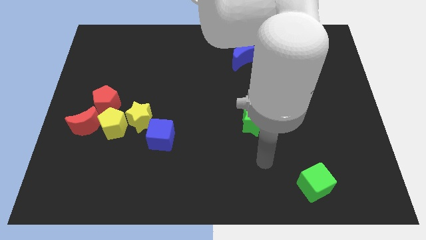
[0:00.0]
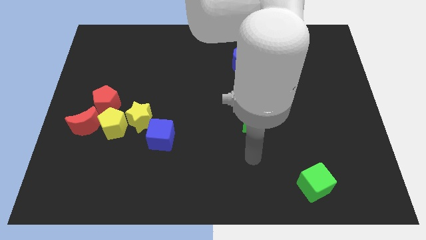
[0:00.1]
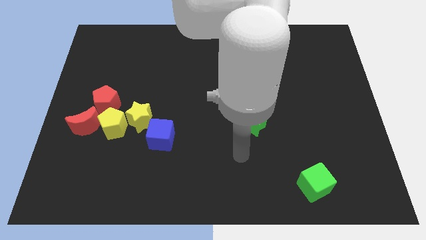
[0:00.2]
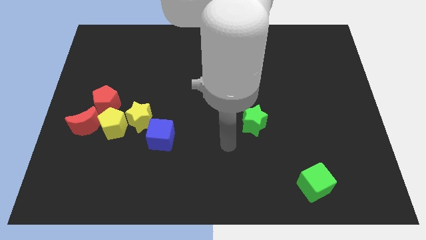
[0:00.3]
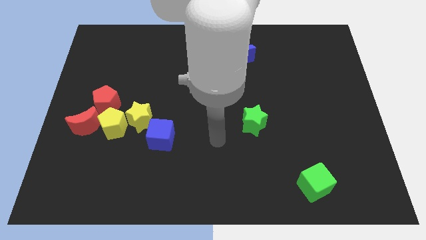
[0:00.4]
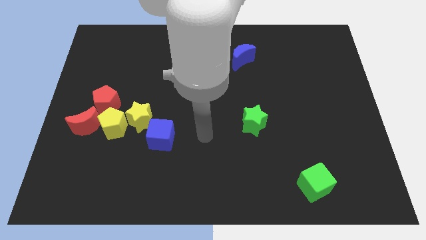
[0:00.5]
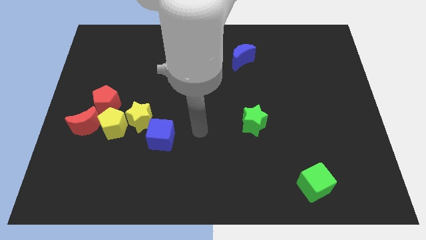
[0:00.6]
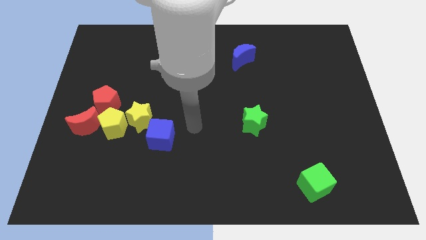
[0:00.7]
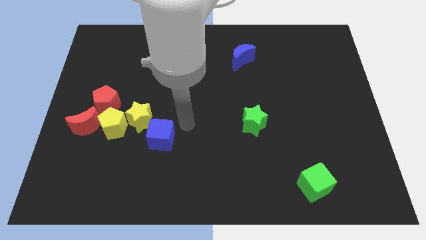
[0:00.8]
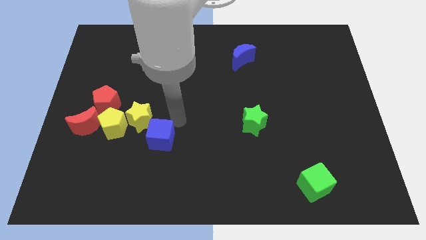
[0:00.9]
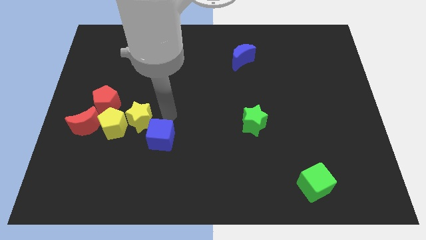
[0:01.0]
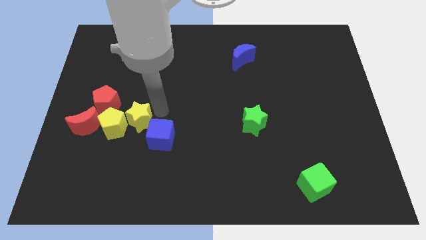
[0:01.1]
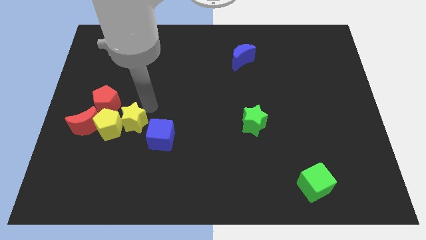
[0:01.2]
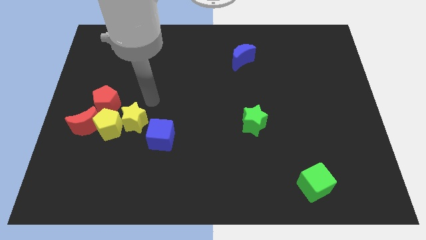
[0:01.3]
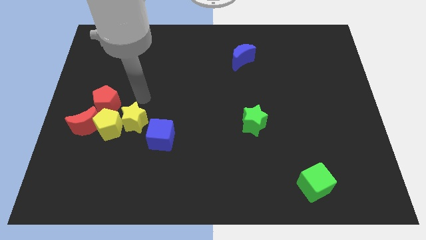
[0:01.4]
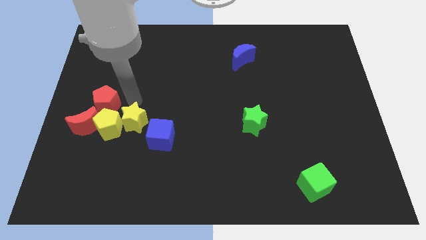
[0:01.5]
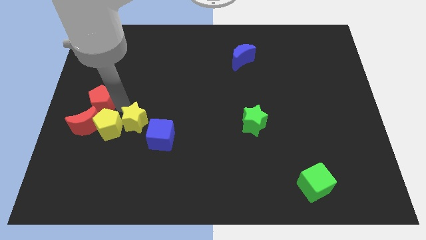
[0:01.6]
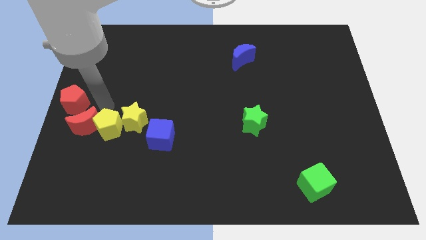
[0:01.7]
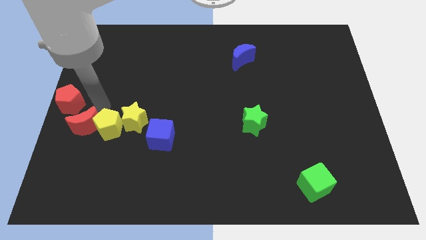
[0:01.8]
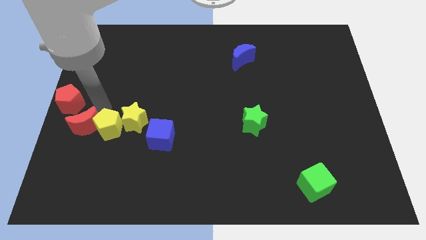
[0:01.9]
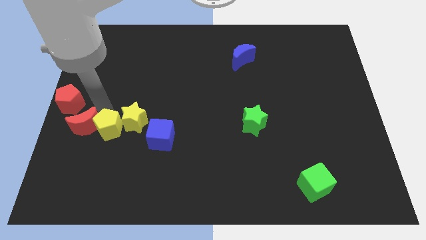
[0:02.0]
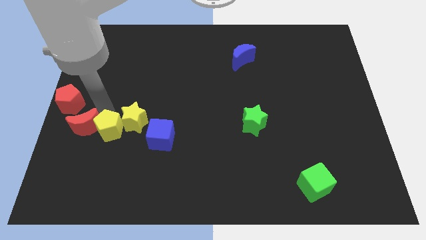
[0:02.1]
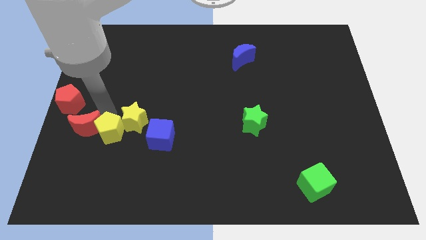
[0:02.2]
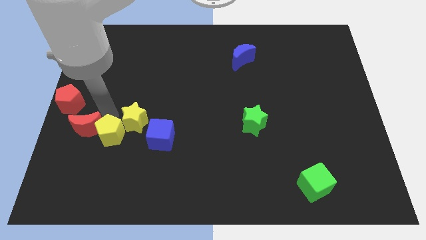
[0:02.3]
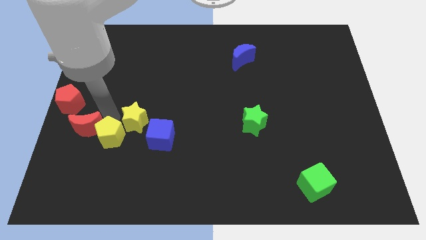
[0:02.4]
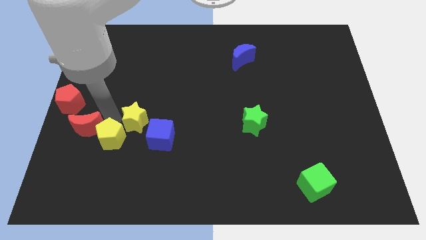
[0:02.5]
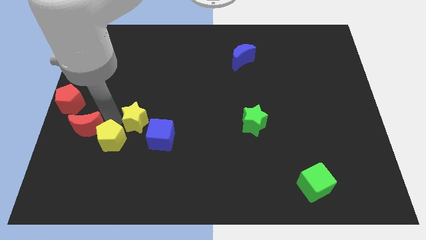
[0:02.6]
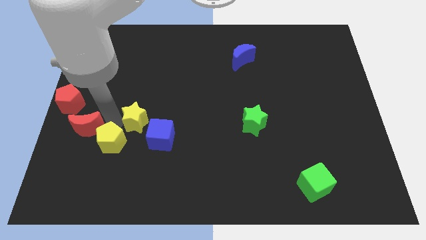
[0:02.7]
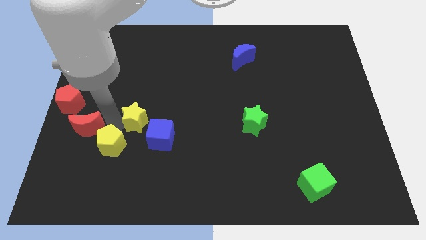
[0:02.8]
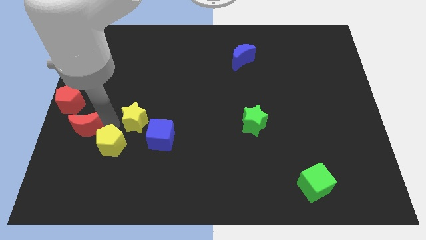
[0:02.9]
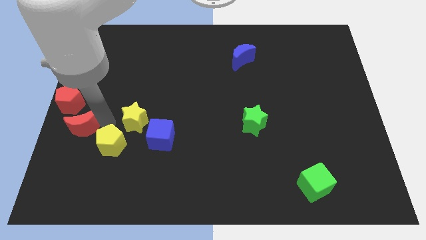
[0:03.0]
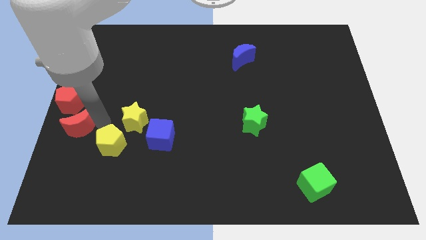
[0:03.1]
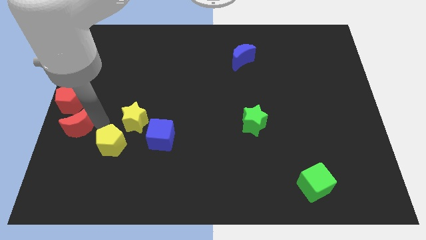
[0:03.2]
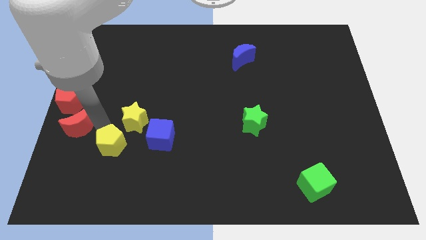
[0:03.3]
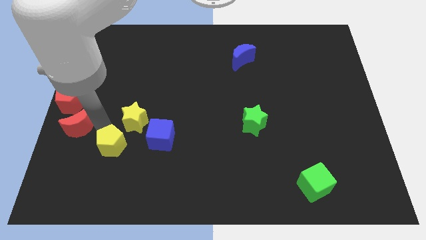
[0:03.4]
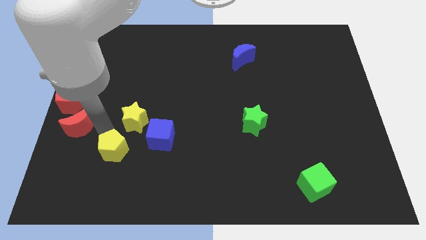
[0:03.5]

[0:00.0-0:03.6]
separate the yellow pentagon from the group

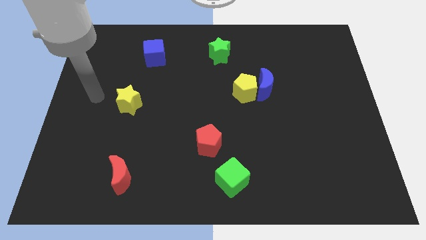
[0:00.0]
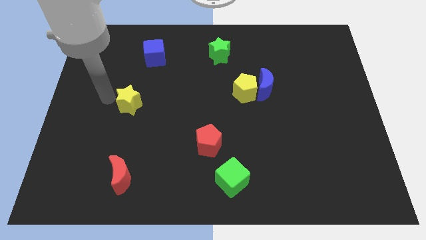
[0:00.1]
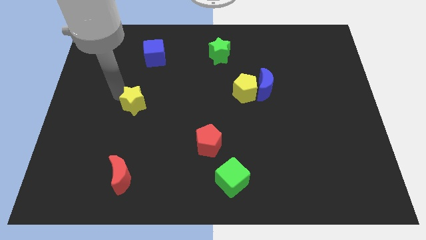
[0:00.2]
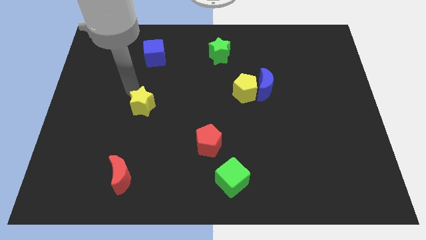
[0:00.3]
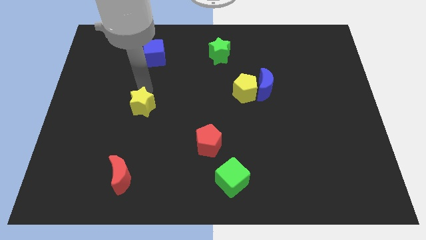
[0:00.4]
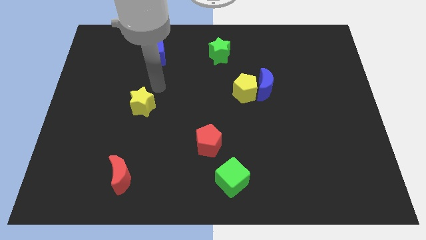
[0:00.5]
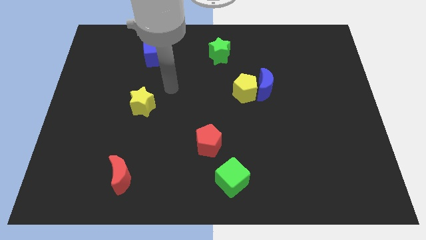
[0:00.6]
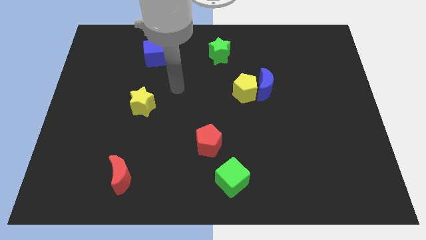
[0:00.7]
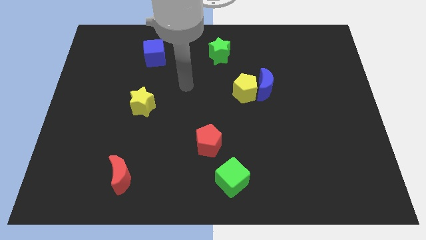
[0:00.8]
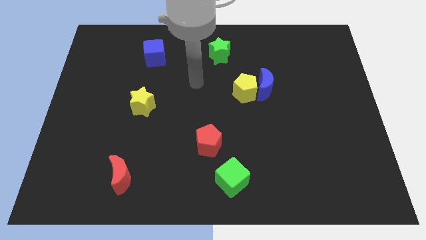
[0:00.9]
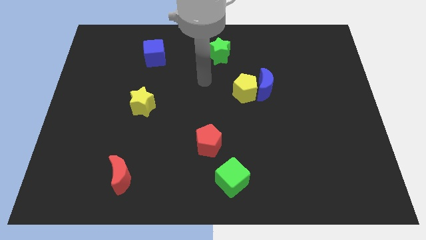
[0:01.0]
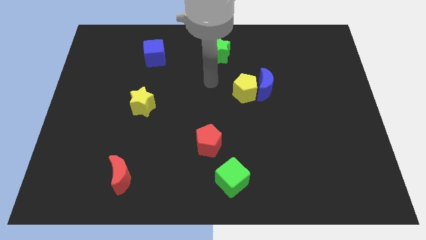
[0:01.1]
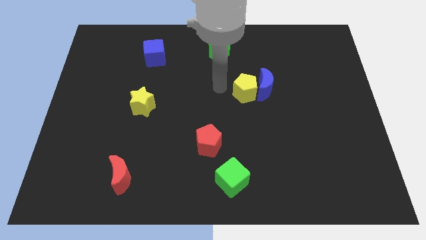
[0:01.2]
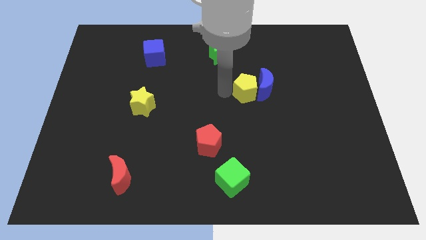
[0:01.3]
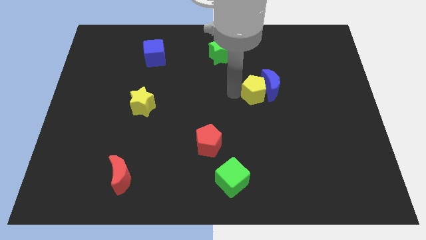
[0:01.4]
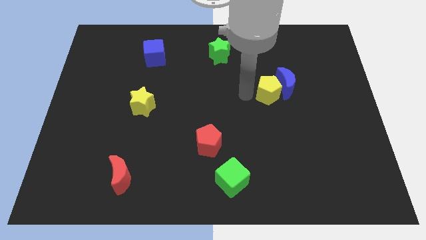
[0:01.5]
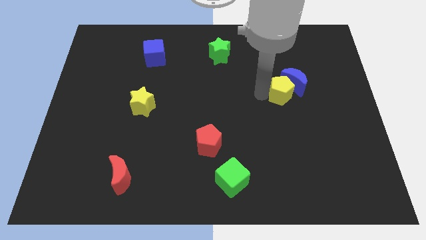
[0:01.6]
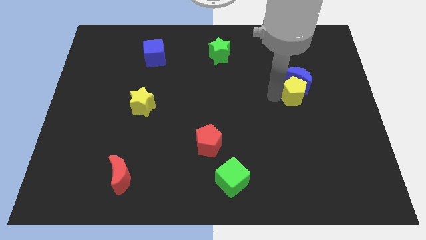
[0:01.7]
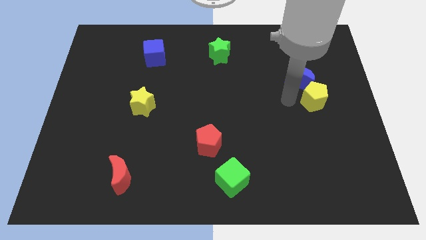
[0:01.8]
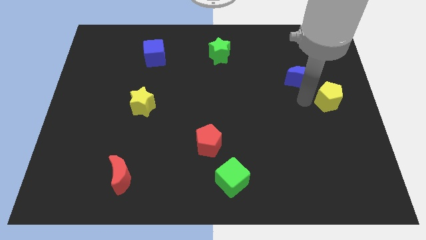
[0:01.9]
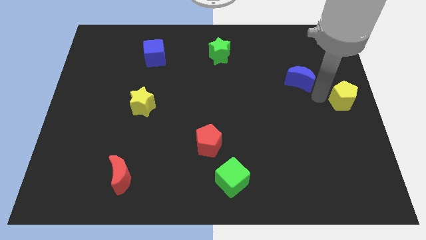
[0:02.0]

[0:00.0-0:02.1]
move the blue moon away from the yellow pentagon

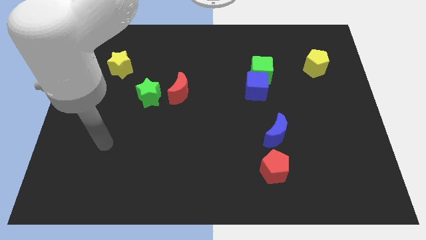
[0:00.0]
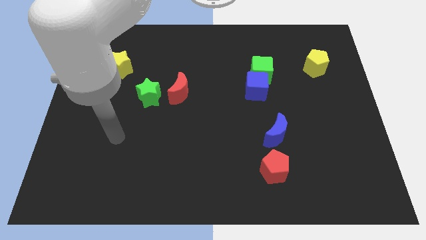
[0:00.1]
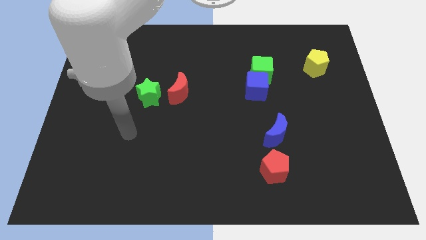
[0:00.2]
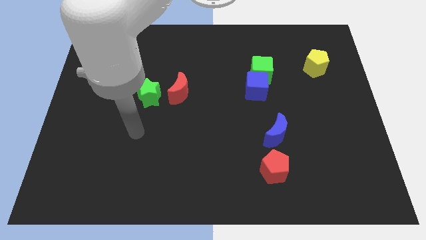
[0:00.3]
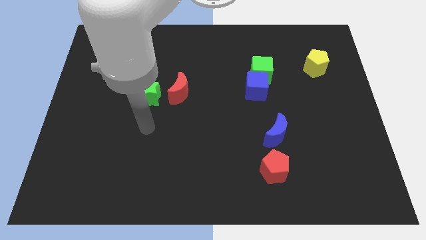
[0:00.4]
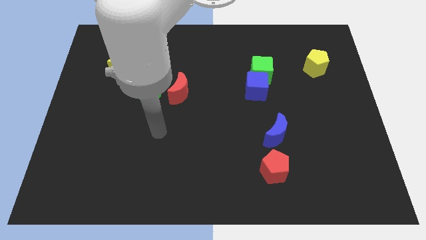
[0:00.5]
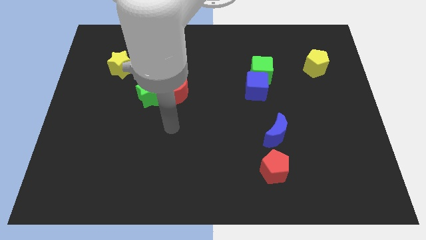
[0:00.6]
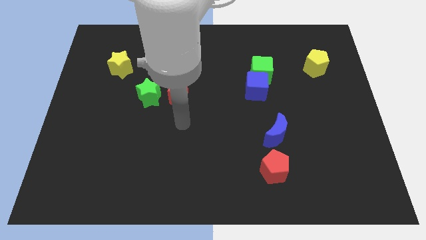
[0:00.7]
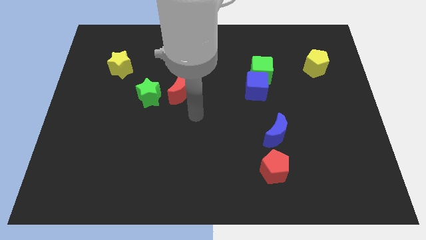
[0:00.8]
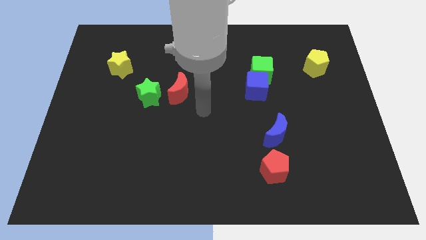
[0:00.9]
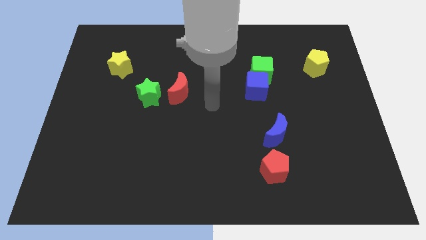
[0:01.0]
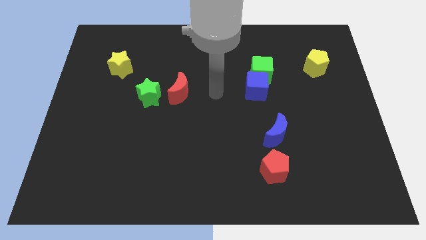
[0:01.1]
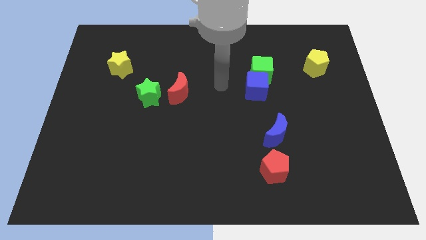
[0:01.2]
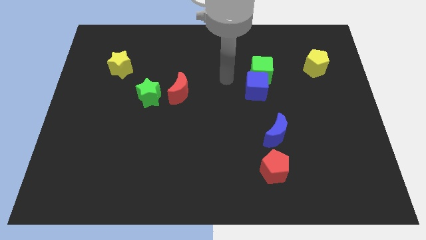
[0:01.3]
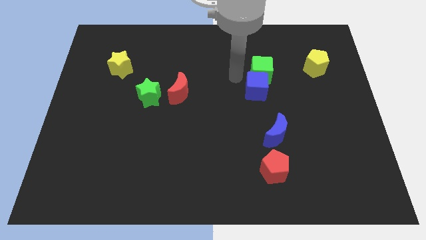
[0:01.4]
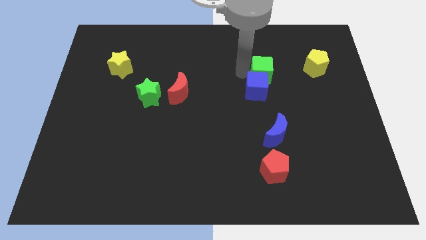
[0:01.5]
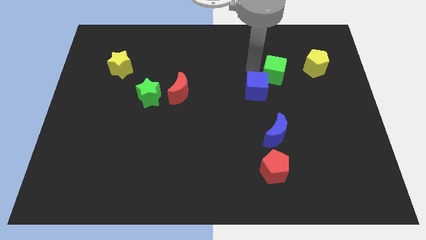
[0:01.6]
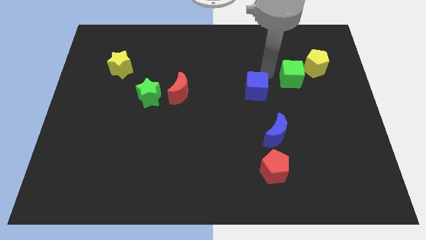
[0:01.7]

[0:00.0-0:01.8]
separate the blue cube from the green cube

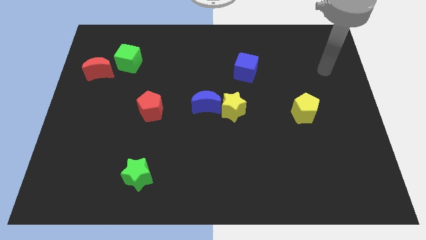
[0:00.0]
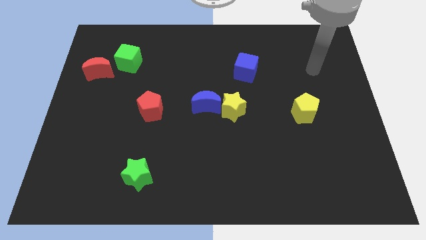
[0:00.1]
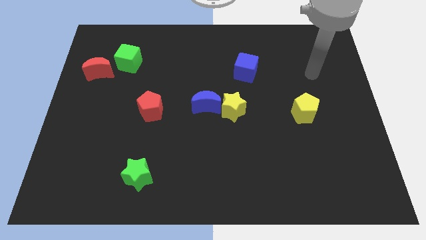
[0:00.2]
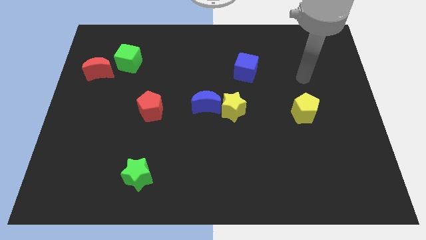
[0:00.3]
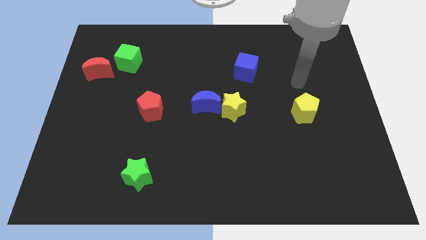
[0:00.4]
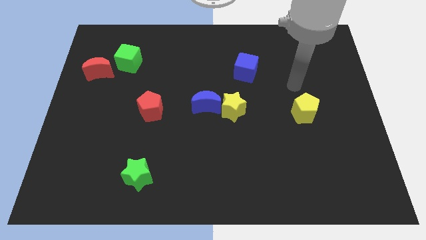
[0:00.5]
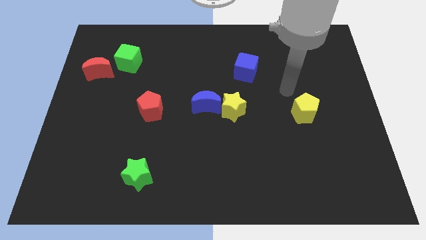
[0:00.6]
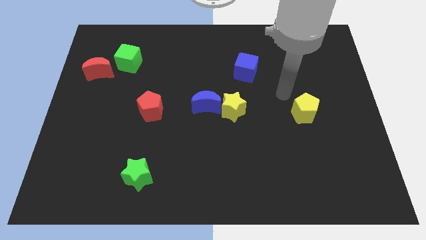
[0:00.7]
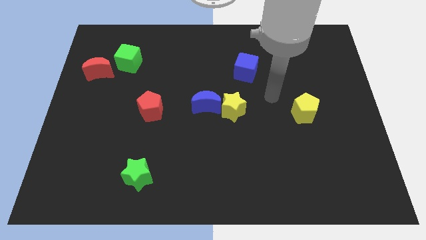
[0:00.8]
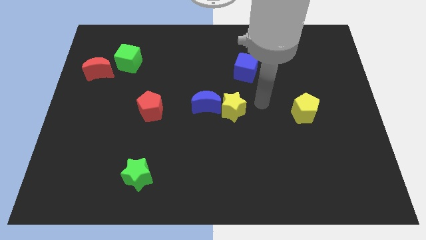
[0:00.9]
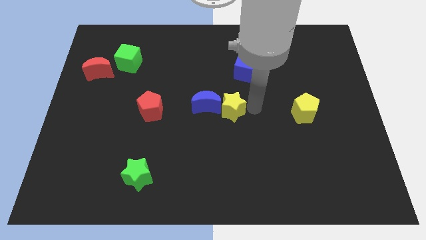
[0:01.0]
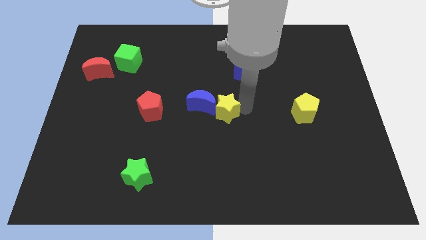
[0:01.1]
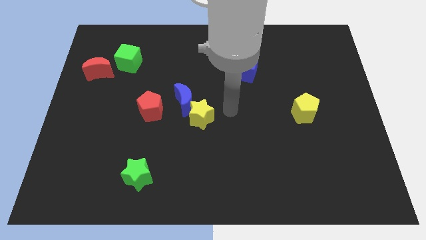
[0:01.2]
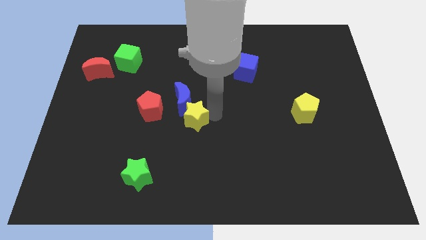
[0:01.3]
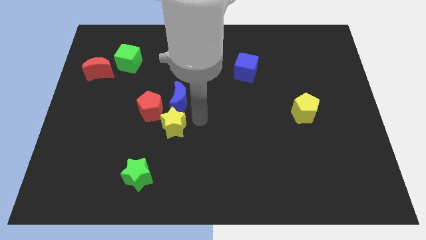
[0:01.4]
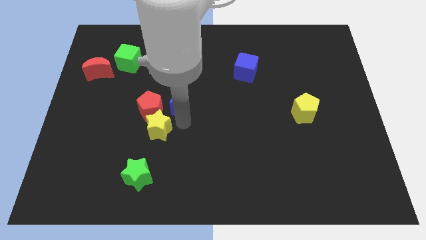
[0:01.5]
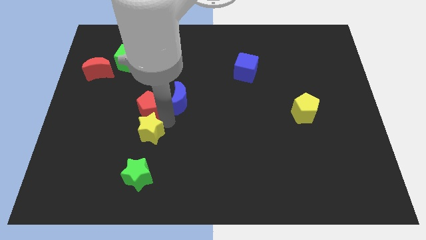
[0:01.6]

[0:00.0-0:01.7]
move the blue moon away from the yellow star

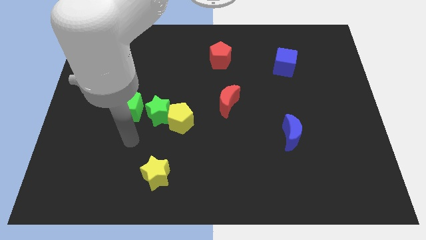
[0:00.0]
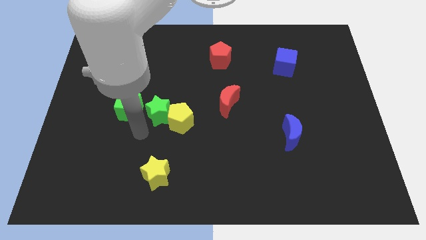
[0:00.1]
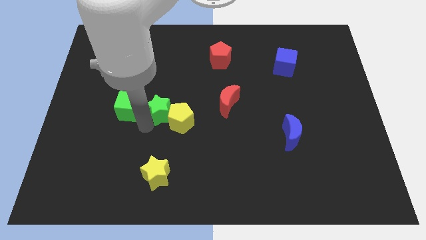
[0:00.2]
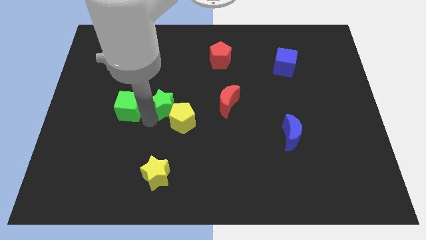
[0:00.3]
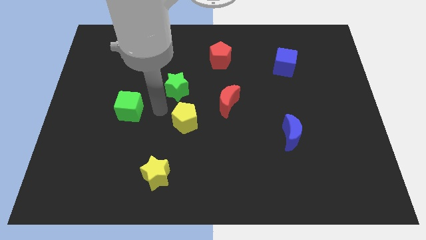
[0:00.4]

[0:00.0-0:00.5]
pull the yellow pentagon apart from the green star
